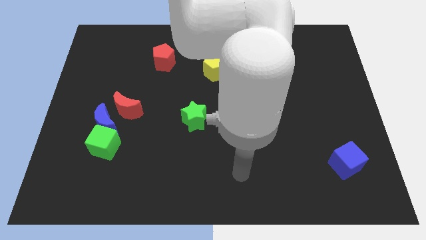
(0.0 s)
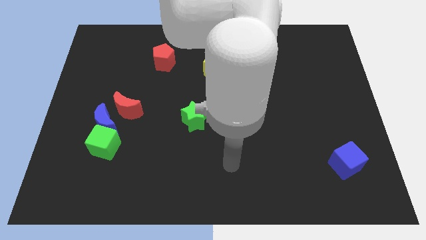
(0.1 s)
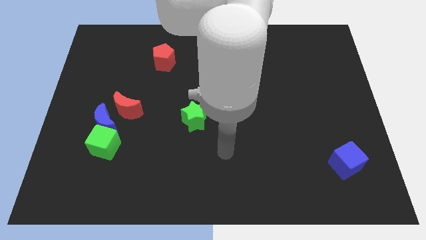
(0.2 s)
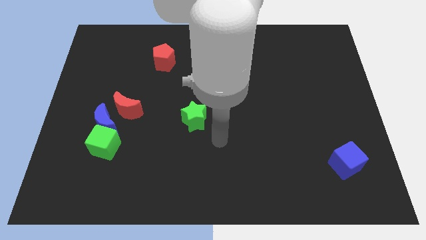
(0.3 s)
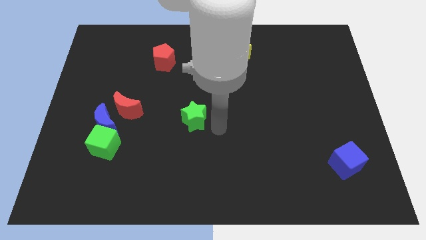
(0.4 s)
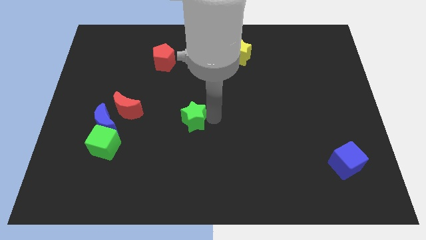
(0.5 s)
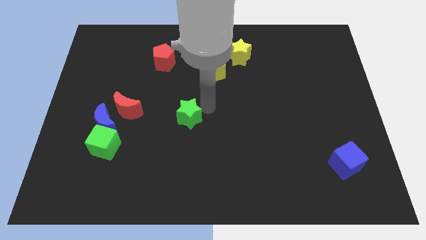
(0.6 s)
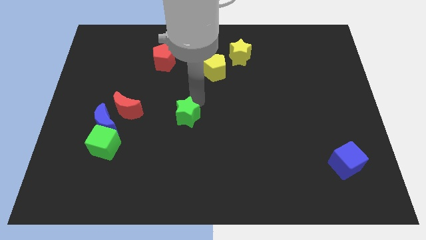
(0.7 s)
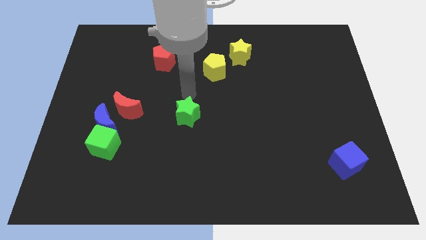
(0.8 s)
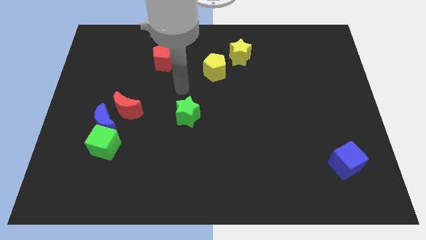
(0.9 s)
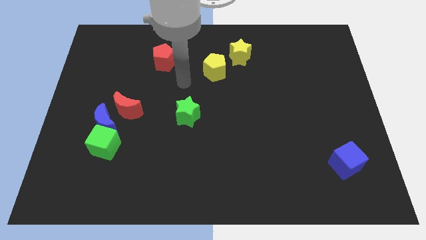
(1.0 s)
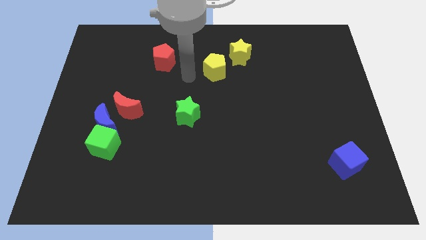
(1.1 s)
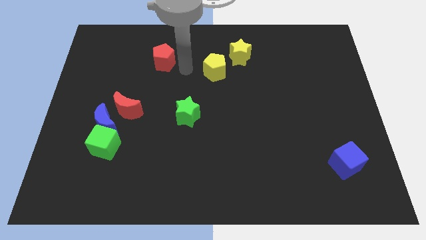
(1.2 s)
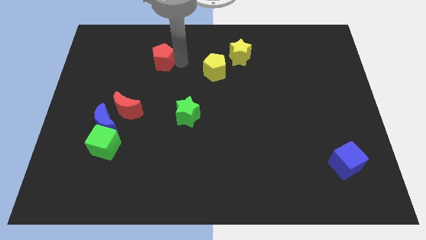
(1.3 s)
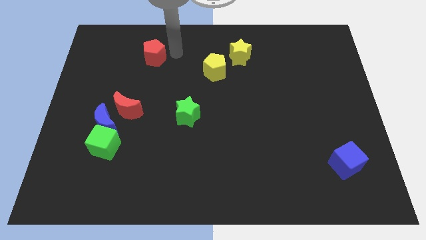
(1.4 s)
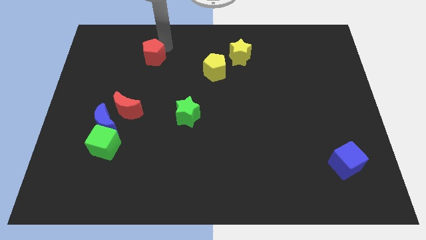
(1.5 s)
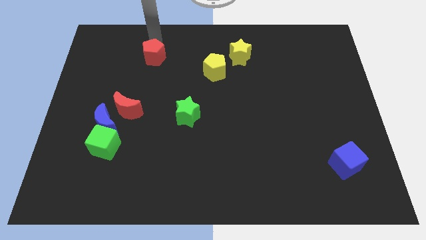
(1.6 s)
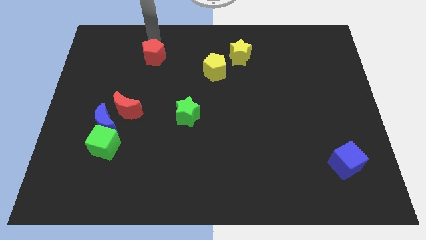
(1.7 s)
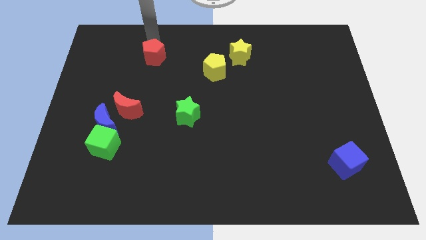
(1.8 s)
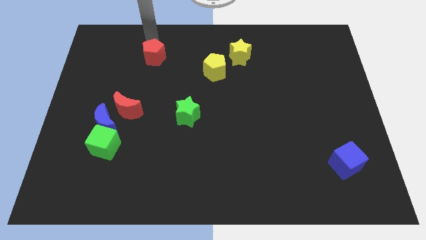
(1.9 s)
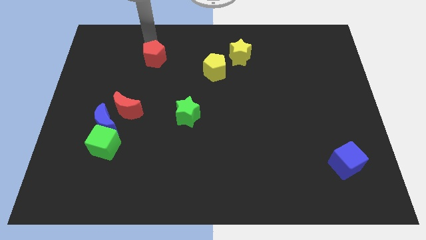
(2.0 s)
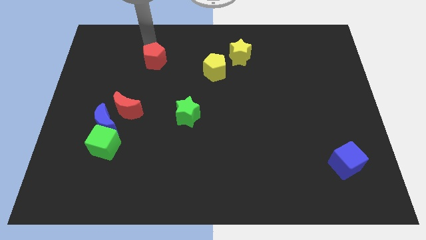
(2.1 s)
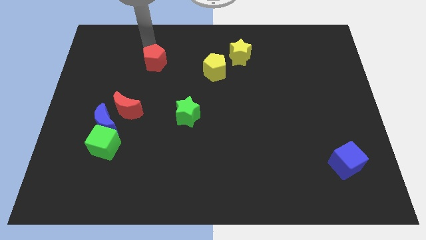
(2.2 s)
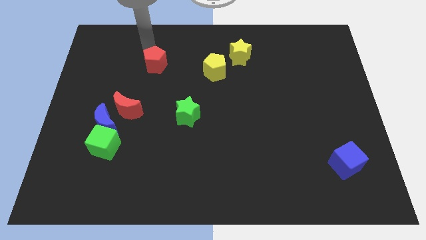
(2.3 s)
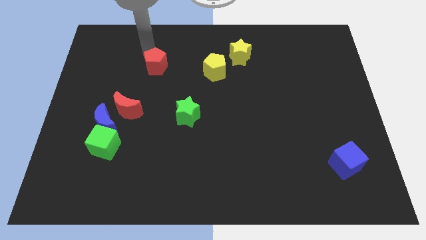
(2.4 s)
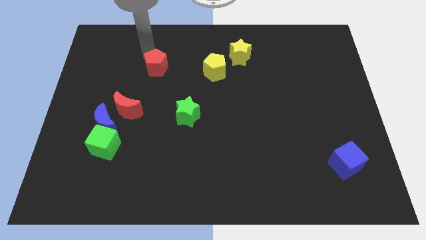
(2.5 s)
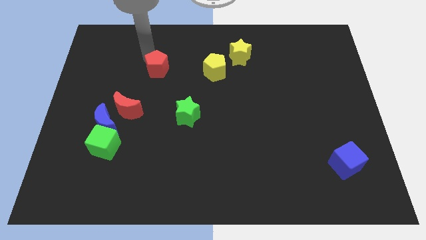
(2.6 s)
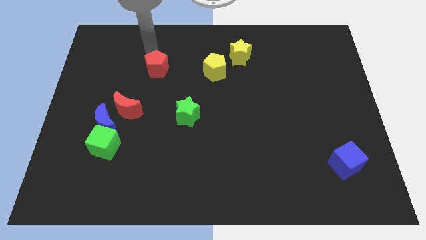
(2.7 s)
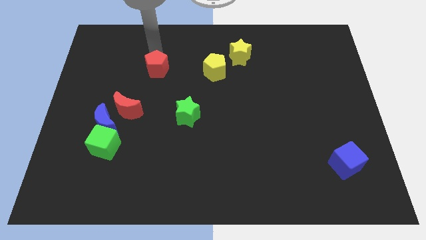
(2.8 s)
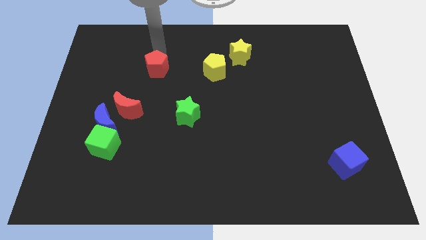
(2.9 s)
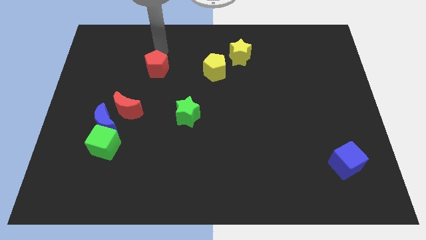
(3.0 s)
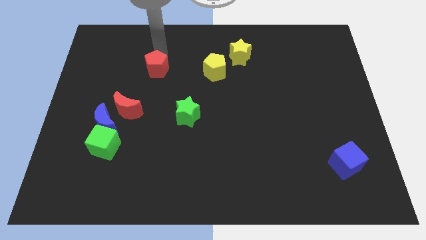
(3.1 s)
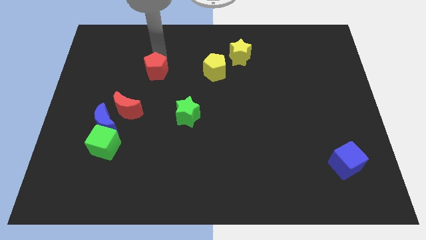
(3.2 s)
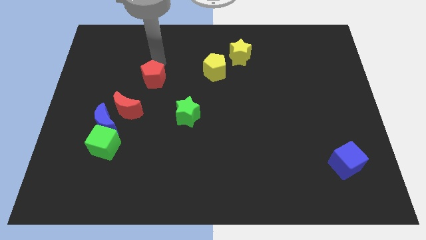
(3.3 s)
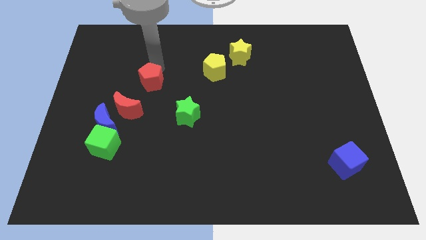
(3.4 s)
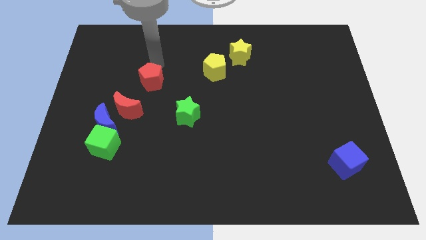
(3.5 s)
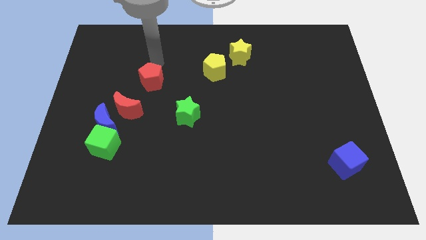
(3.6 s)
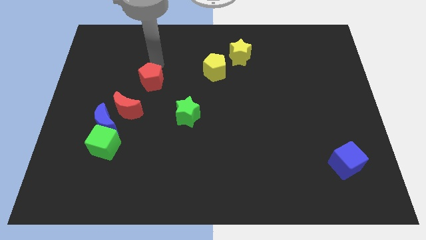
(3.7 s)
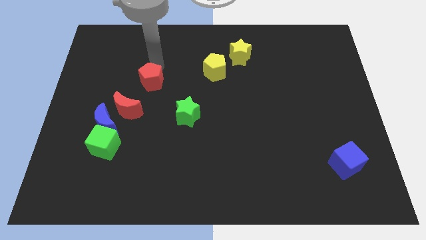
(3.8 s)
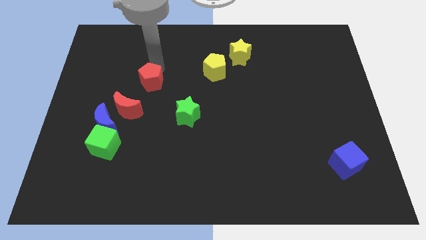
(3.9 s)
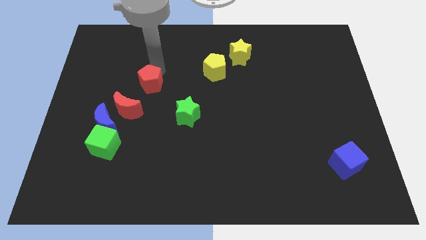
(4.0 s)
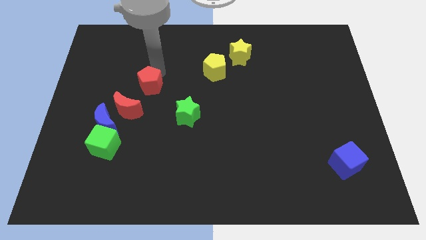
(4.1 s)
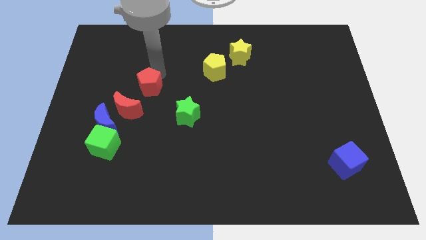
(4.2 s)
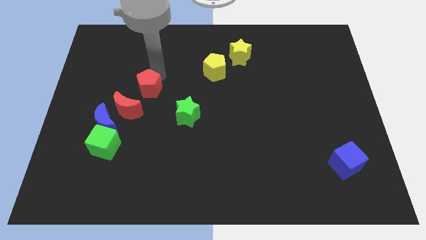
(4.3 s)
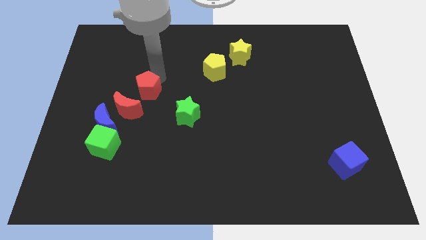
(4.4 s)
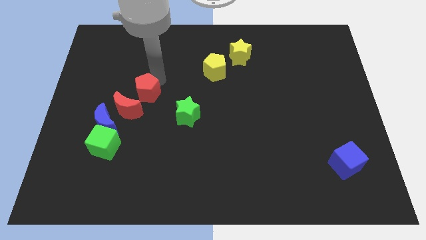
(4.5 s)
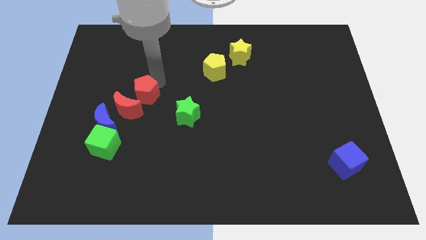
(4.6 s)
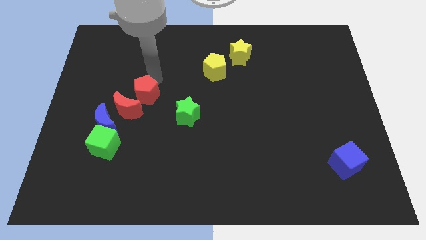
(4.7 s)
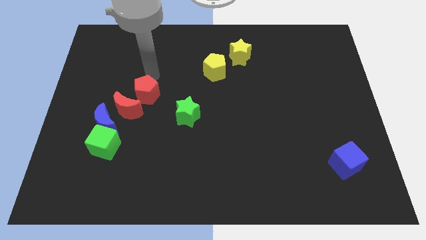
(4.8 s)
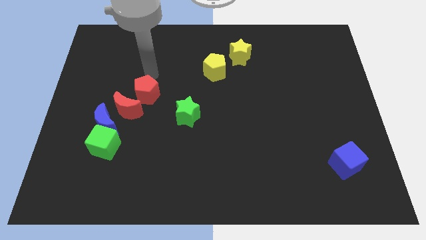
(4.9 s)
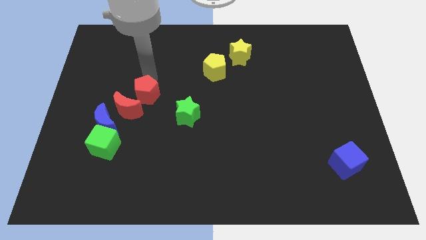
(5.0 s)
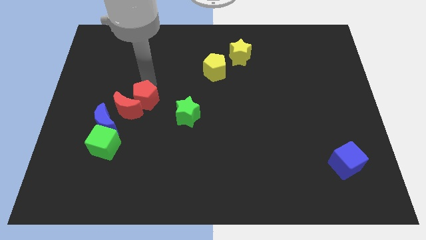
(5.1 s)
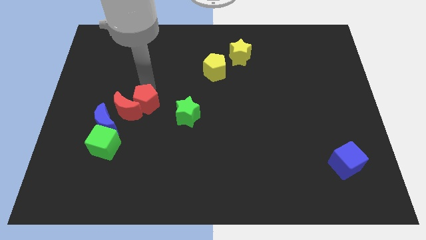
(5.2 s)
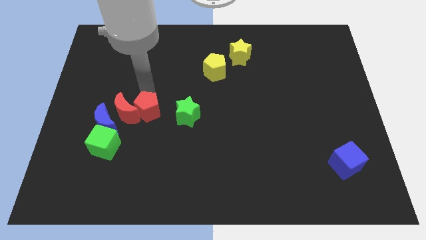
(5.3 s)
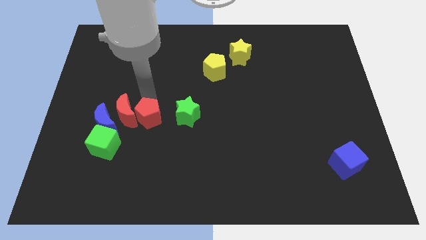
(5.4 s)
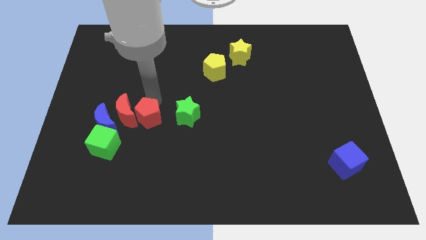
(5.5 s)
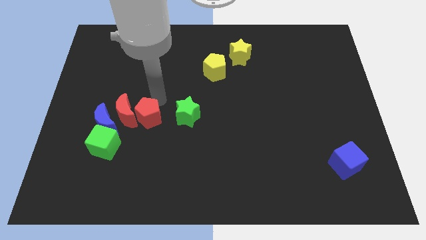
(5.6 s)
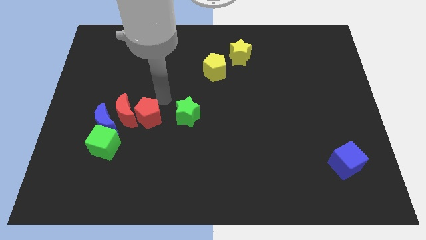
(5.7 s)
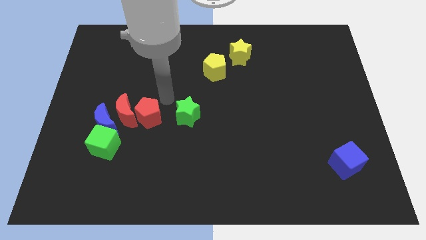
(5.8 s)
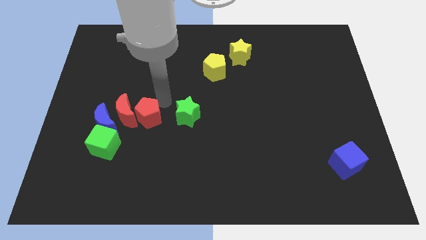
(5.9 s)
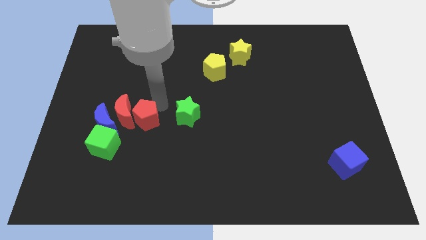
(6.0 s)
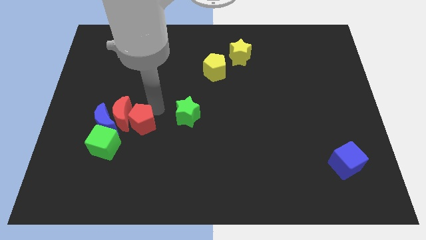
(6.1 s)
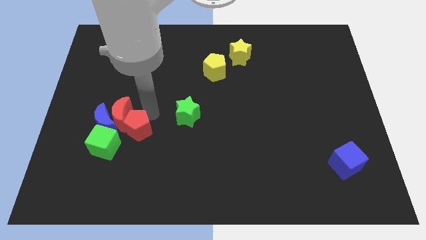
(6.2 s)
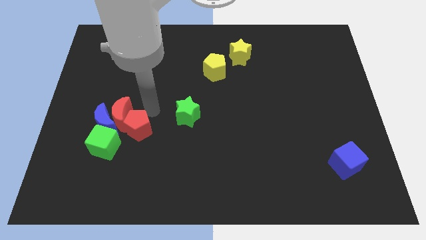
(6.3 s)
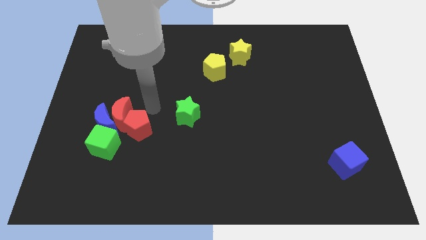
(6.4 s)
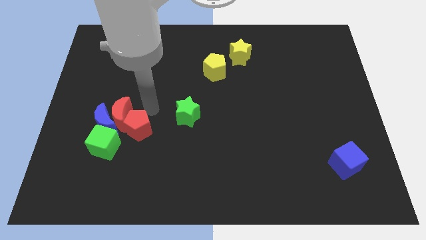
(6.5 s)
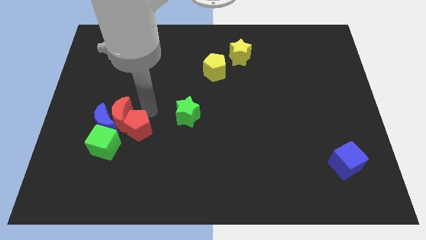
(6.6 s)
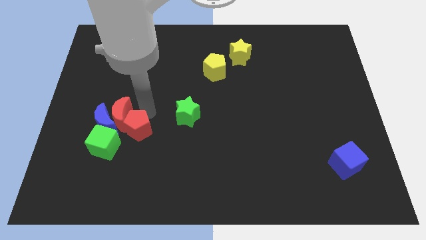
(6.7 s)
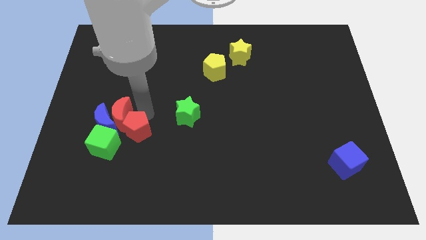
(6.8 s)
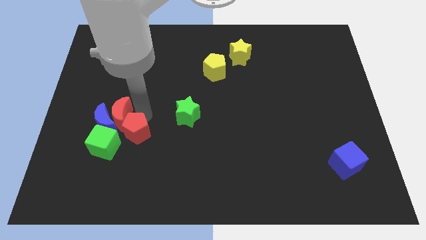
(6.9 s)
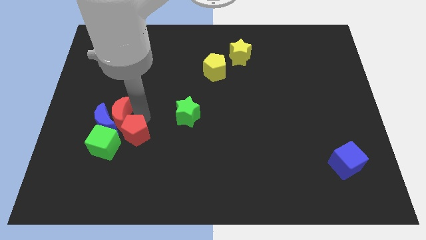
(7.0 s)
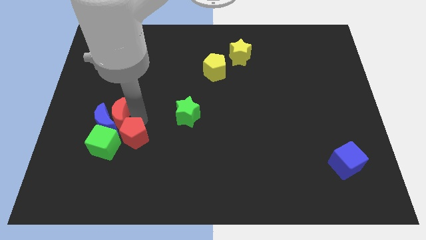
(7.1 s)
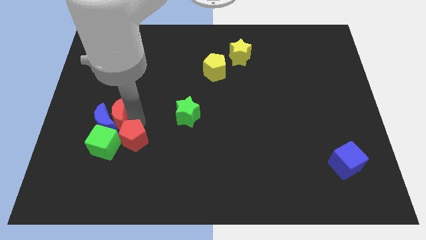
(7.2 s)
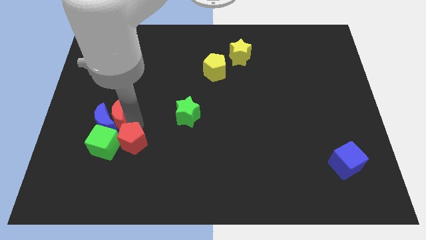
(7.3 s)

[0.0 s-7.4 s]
slide the red pentagon to the bottom right side of the green cube
